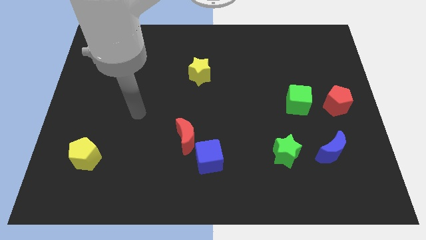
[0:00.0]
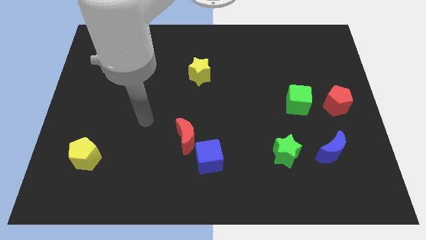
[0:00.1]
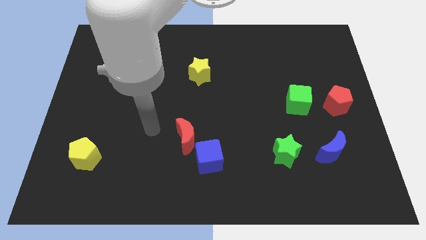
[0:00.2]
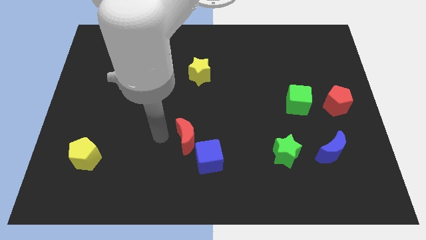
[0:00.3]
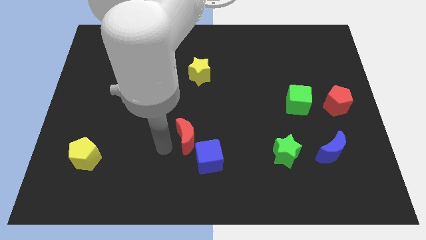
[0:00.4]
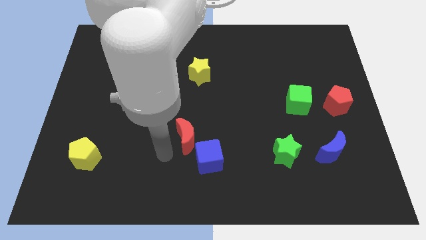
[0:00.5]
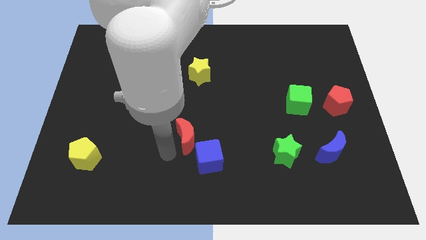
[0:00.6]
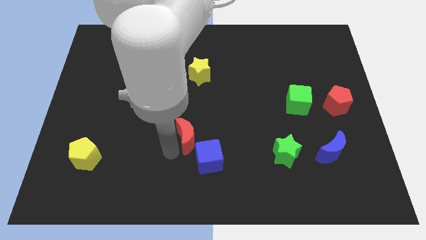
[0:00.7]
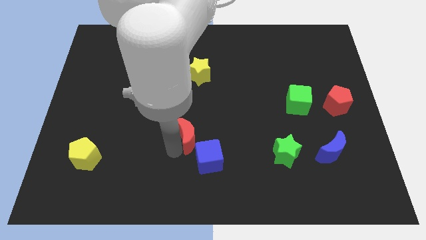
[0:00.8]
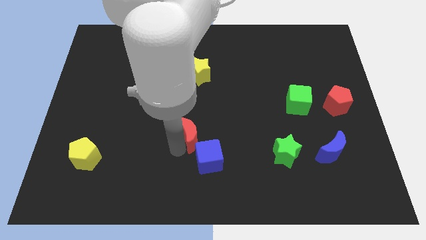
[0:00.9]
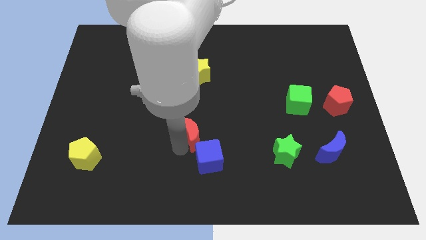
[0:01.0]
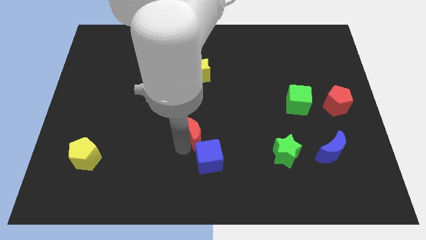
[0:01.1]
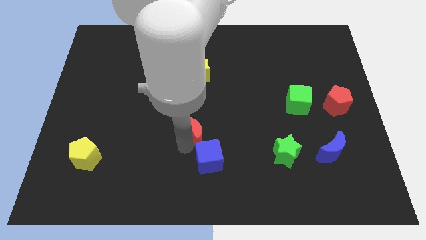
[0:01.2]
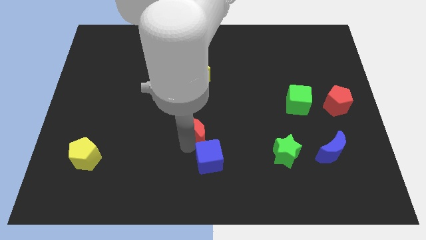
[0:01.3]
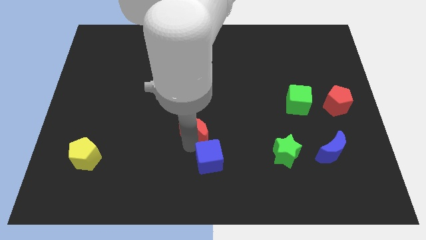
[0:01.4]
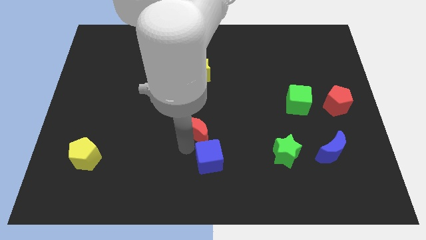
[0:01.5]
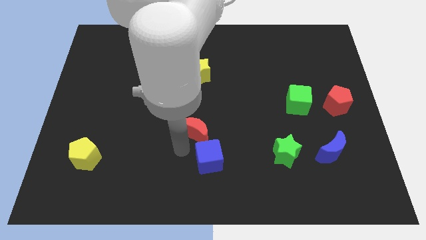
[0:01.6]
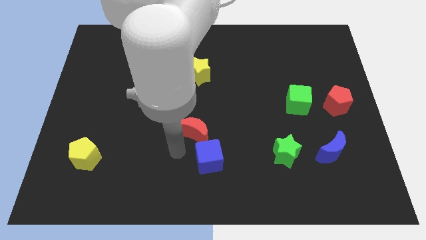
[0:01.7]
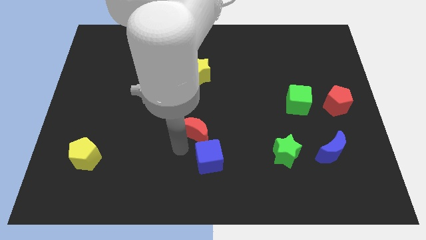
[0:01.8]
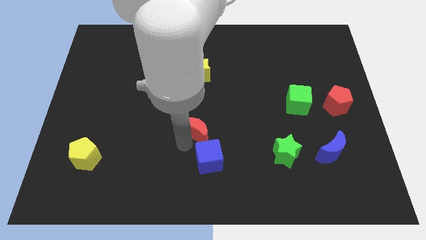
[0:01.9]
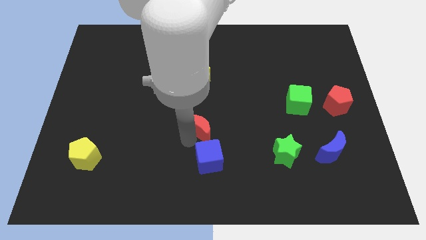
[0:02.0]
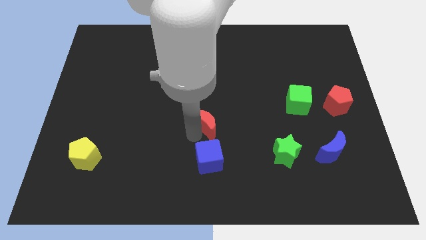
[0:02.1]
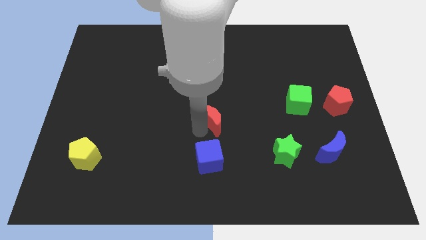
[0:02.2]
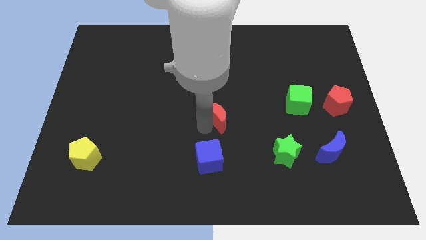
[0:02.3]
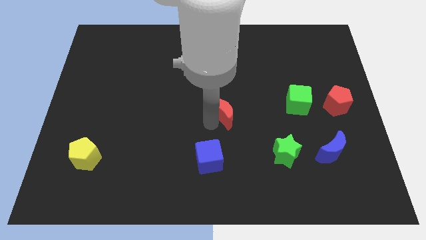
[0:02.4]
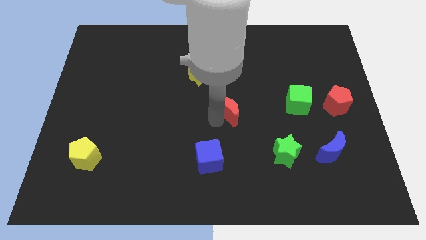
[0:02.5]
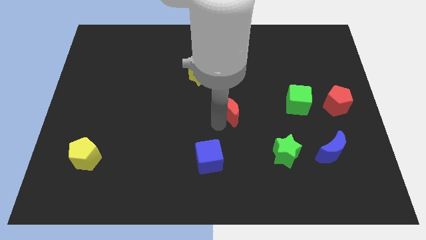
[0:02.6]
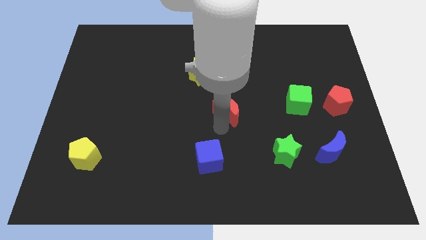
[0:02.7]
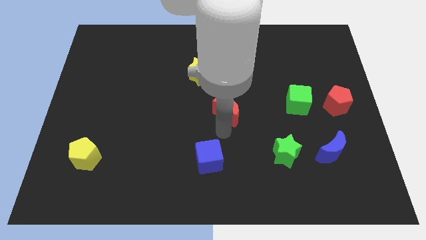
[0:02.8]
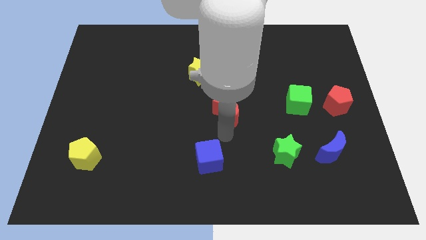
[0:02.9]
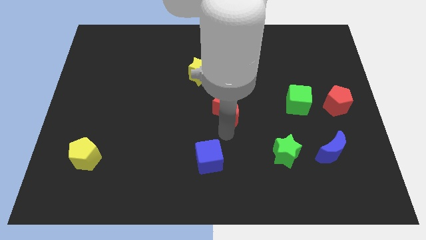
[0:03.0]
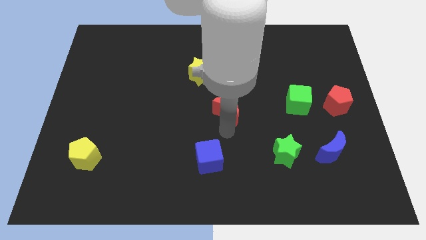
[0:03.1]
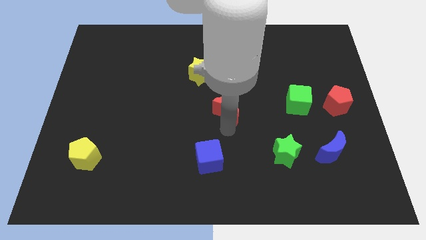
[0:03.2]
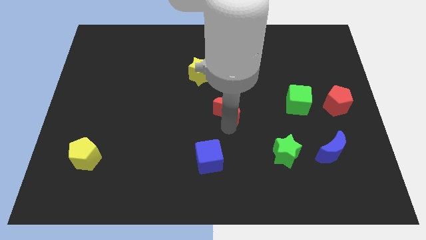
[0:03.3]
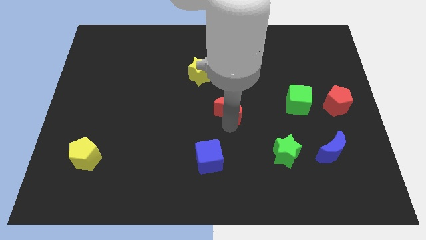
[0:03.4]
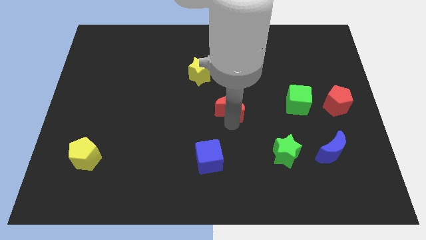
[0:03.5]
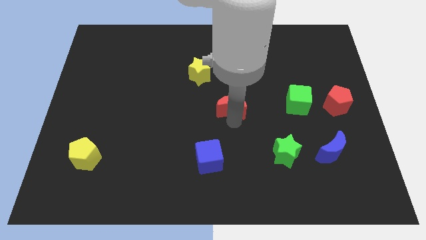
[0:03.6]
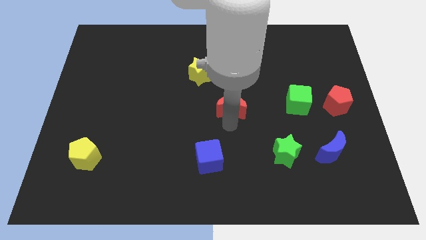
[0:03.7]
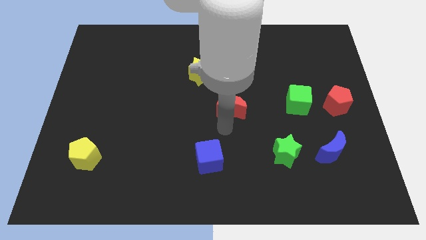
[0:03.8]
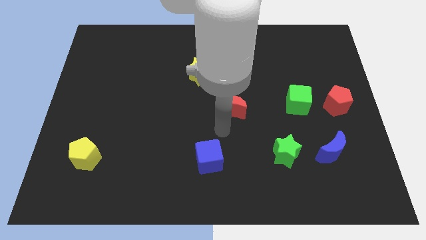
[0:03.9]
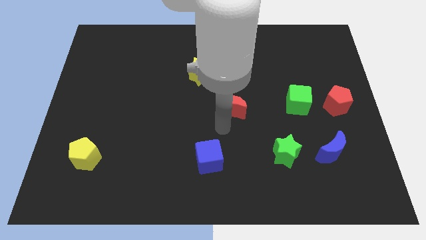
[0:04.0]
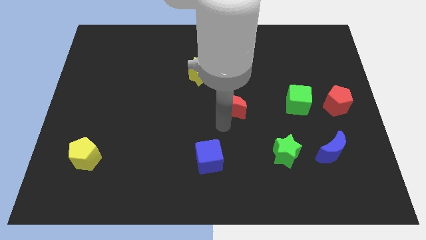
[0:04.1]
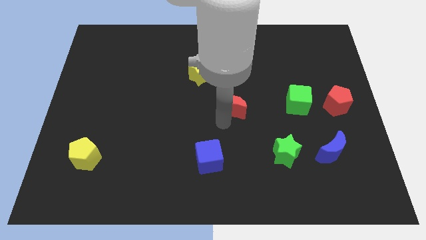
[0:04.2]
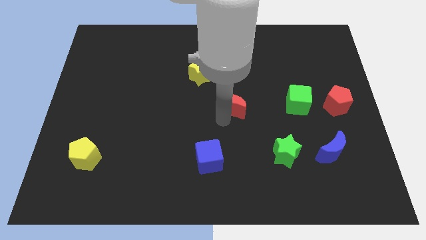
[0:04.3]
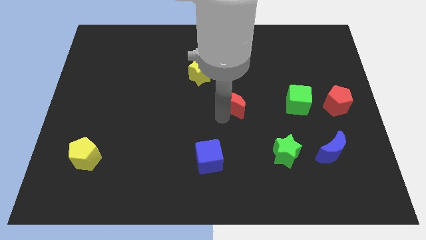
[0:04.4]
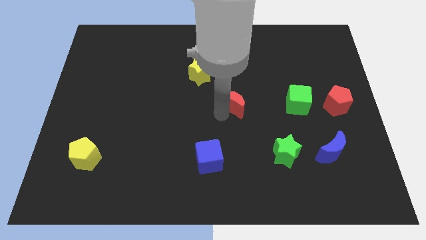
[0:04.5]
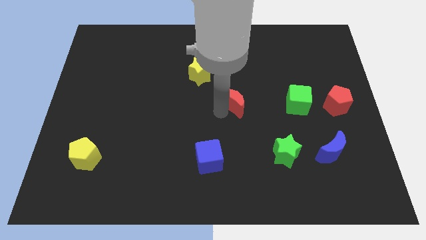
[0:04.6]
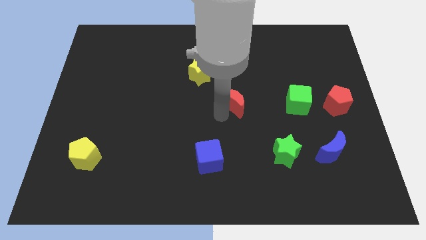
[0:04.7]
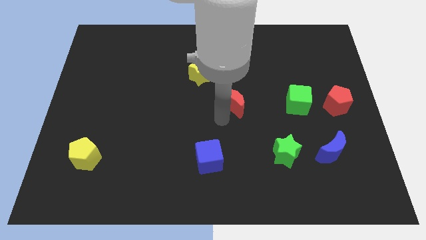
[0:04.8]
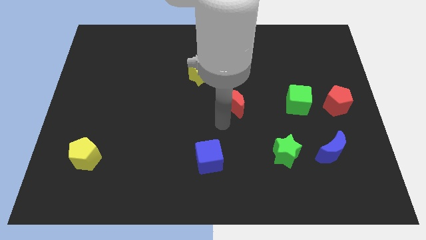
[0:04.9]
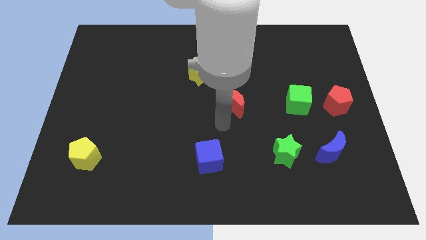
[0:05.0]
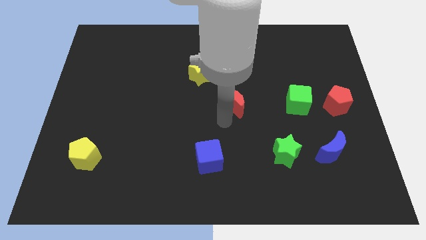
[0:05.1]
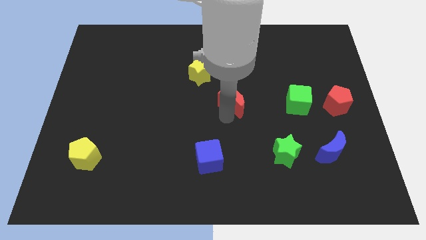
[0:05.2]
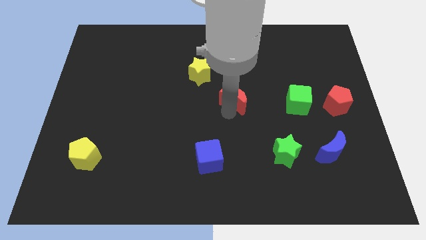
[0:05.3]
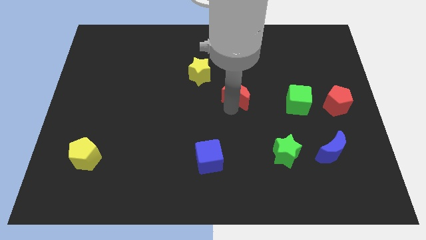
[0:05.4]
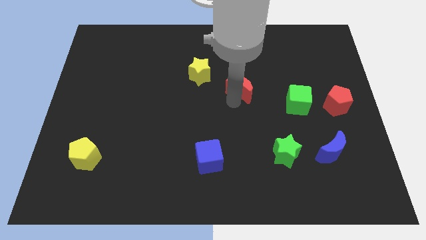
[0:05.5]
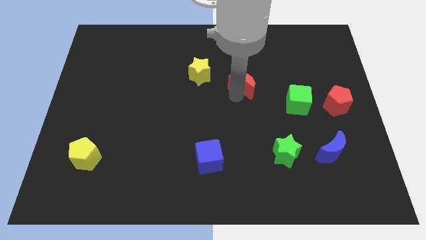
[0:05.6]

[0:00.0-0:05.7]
push the red moon upwards and then right

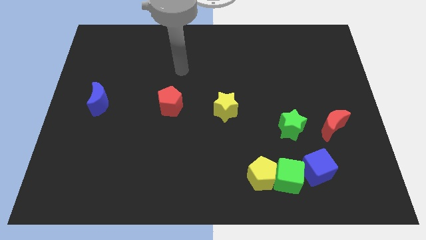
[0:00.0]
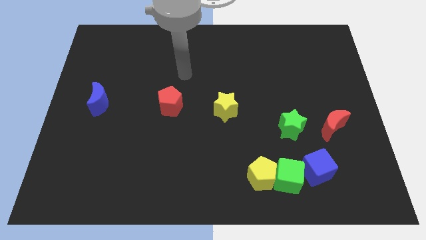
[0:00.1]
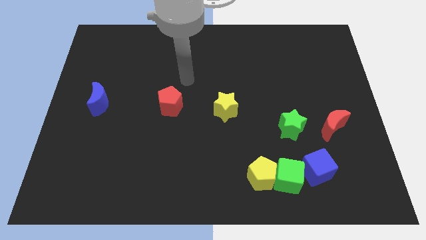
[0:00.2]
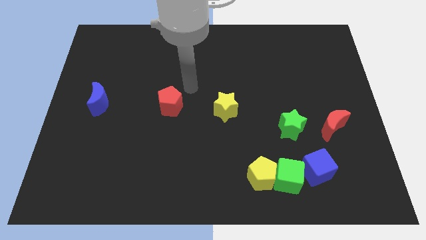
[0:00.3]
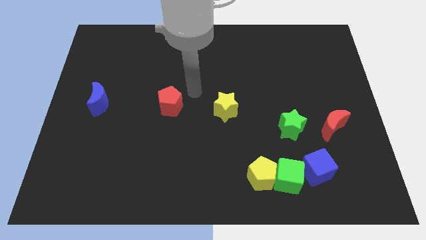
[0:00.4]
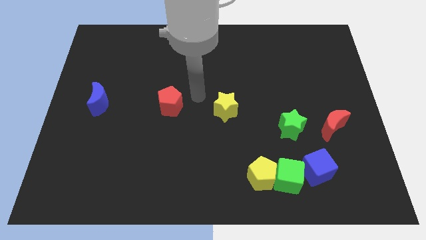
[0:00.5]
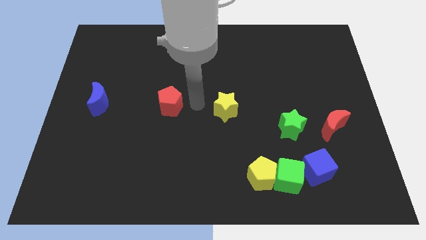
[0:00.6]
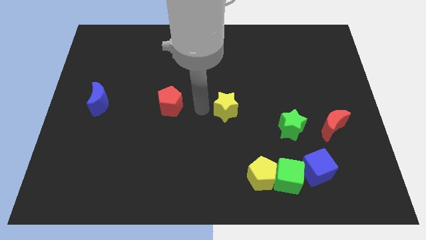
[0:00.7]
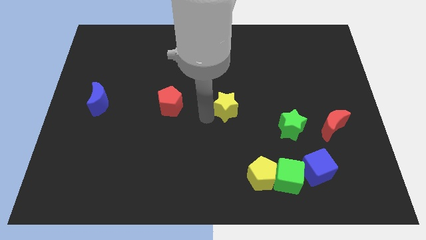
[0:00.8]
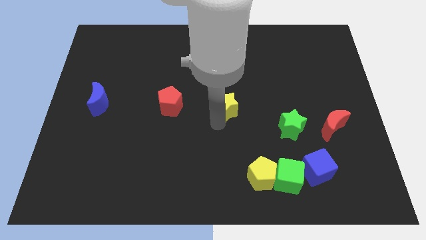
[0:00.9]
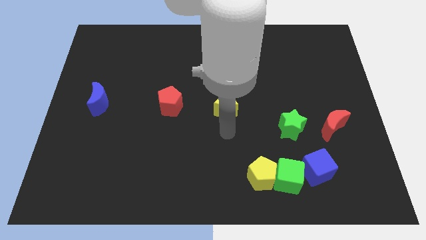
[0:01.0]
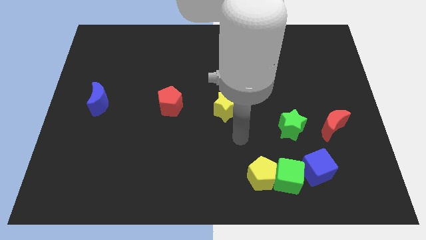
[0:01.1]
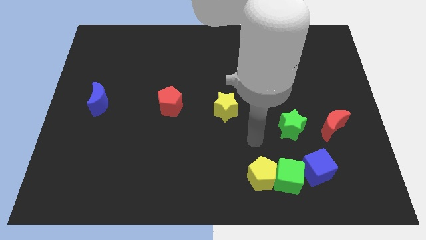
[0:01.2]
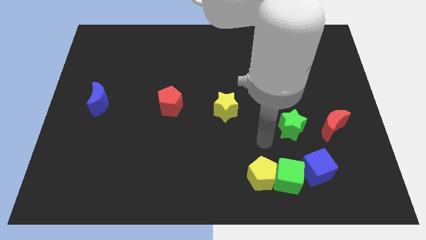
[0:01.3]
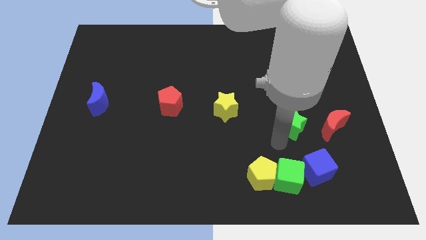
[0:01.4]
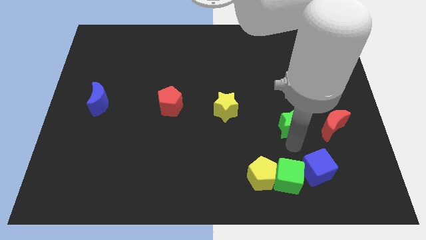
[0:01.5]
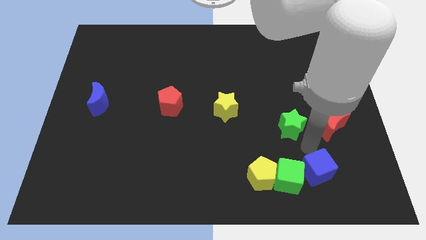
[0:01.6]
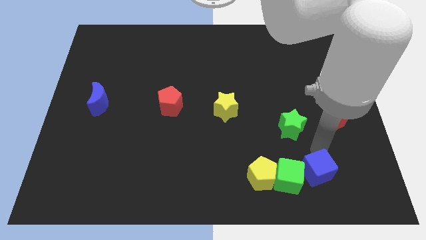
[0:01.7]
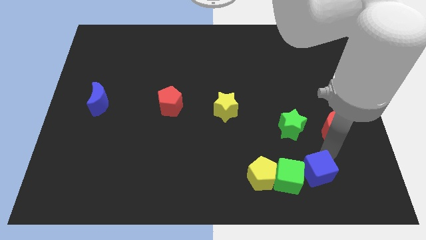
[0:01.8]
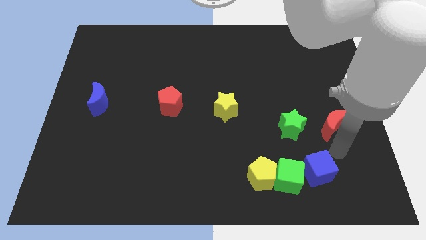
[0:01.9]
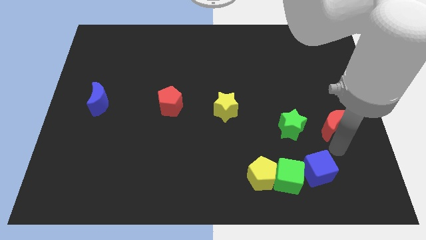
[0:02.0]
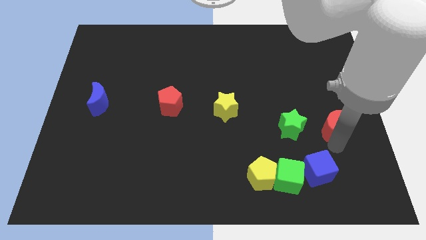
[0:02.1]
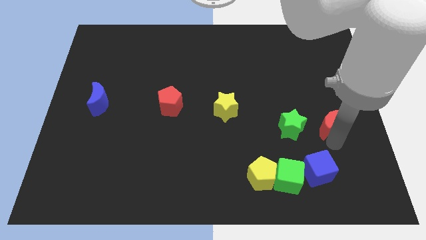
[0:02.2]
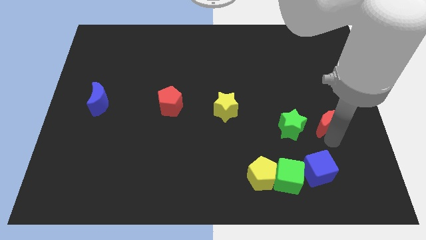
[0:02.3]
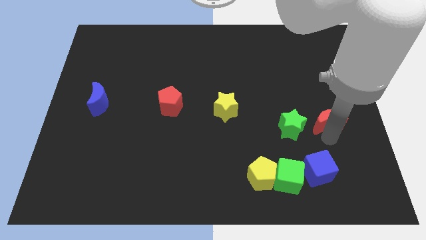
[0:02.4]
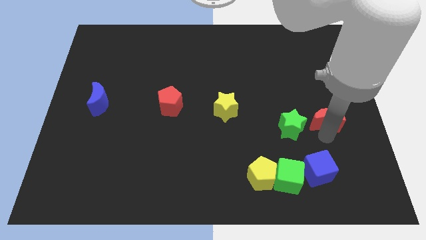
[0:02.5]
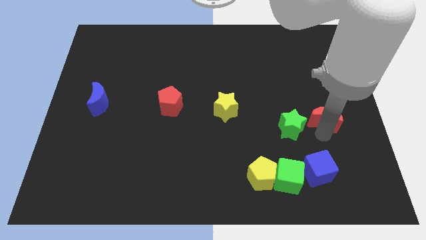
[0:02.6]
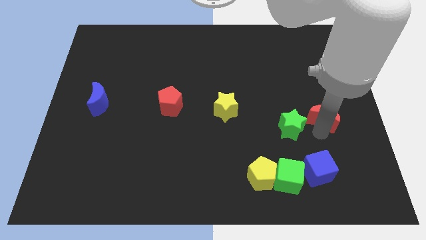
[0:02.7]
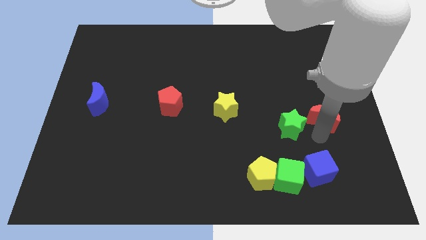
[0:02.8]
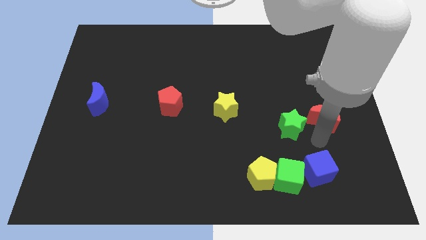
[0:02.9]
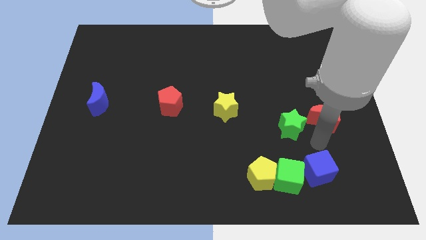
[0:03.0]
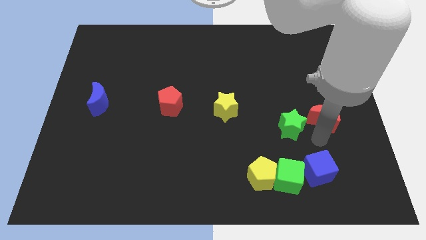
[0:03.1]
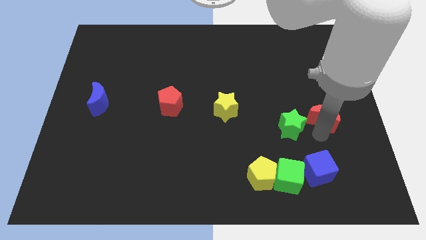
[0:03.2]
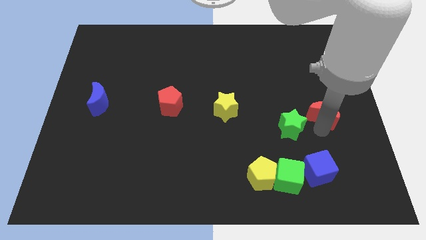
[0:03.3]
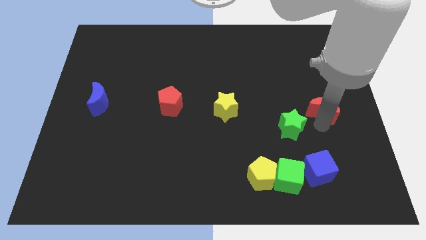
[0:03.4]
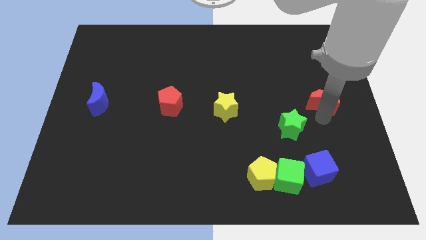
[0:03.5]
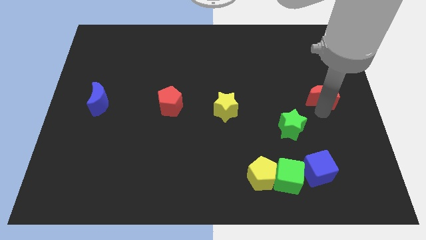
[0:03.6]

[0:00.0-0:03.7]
push the red moon up a little bit
